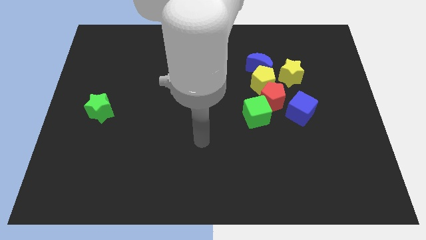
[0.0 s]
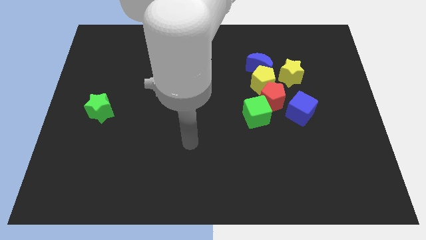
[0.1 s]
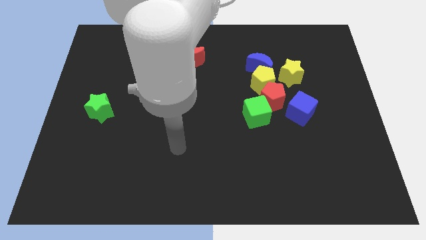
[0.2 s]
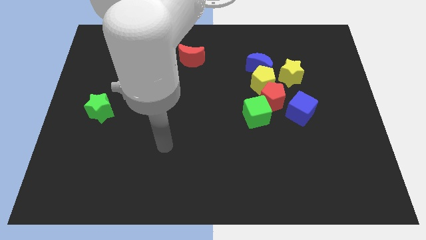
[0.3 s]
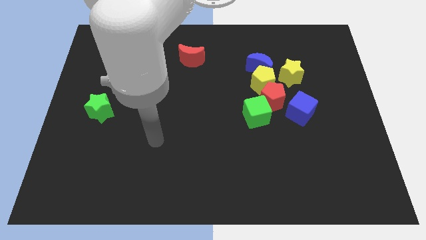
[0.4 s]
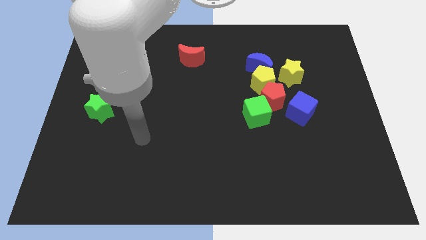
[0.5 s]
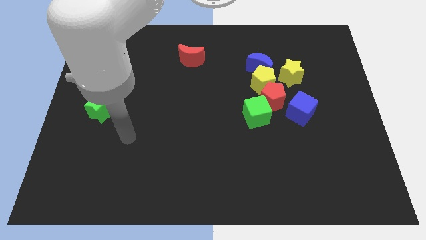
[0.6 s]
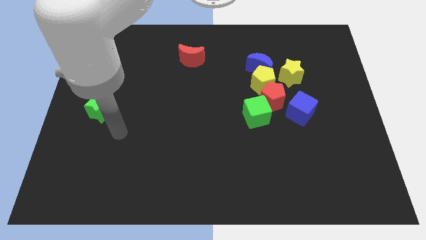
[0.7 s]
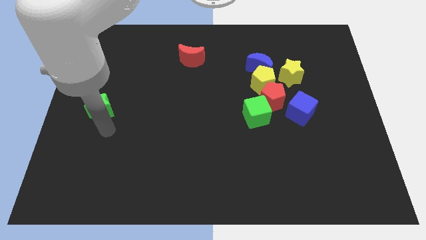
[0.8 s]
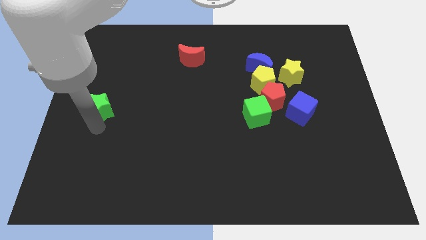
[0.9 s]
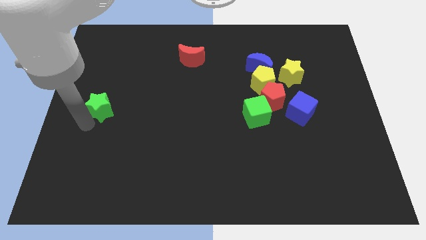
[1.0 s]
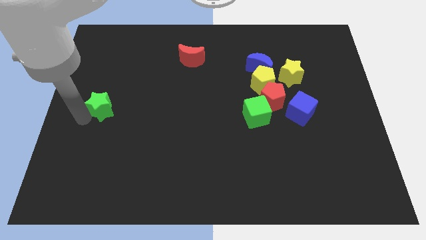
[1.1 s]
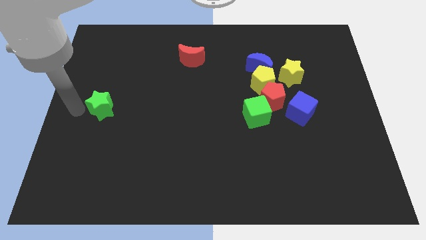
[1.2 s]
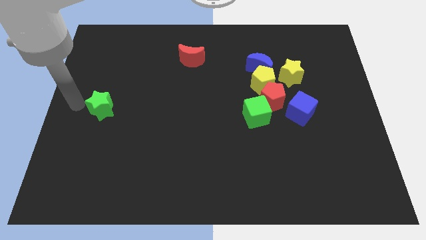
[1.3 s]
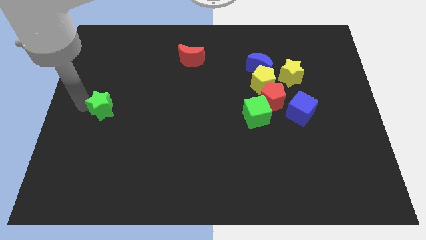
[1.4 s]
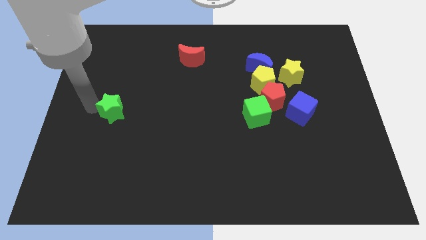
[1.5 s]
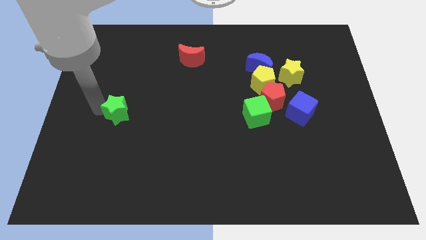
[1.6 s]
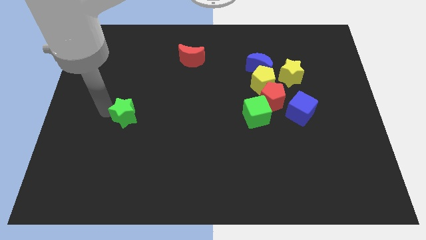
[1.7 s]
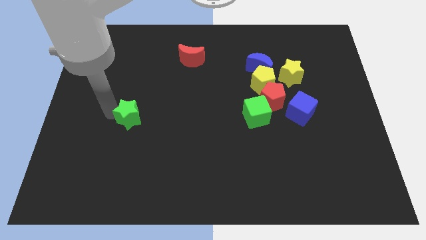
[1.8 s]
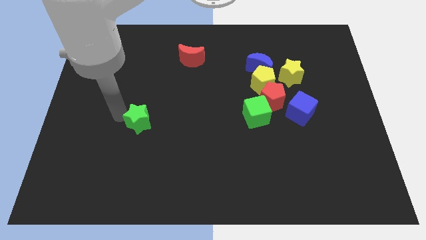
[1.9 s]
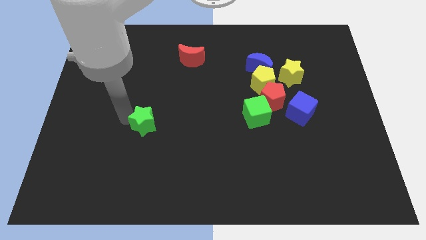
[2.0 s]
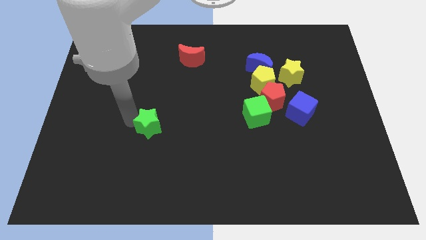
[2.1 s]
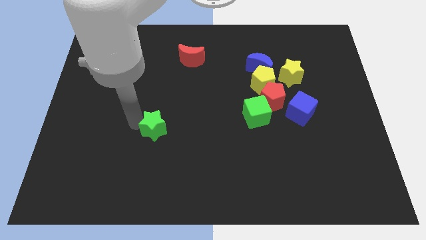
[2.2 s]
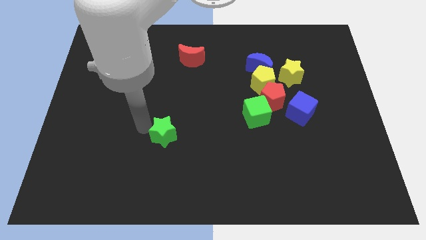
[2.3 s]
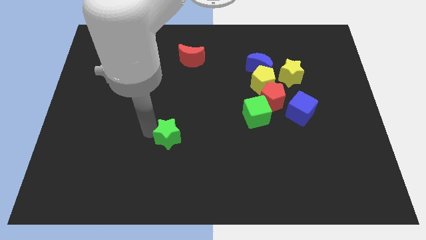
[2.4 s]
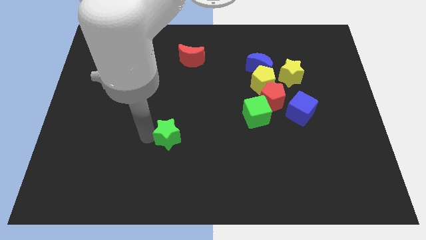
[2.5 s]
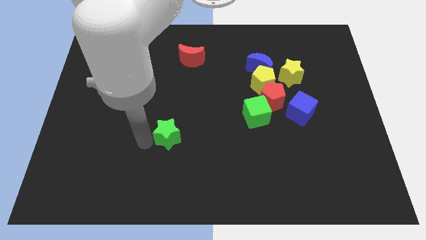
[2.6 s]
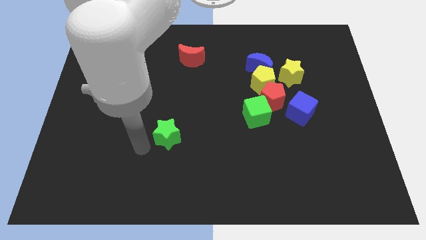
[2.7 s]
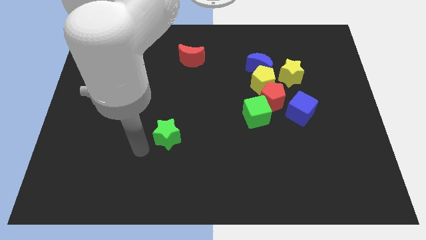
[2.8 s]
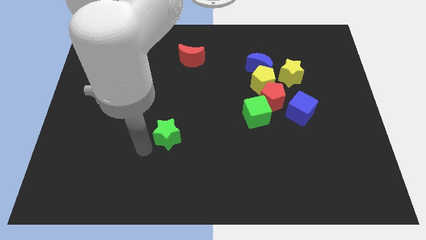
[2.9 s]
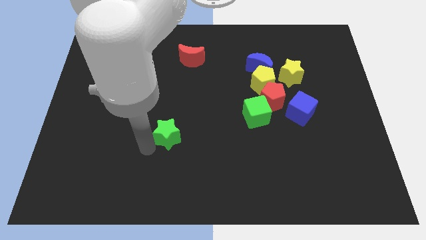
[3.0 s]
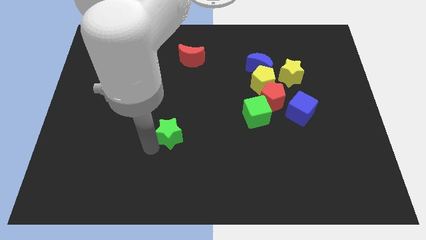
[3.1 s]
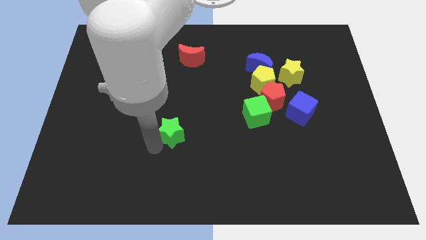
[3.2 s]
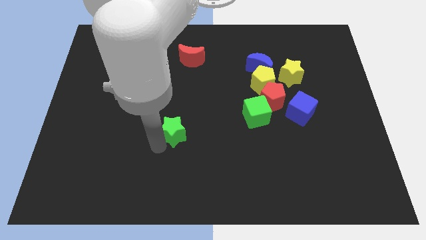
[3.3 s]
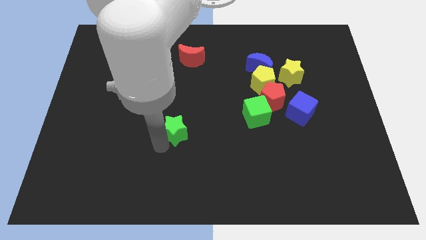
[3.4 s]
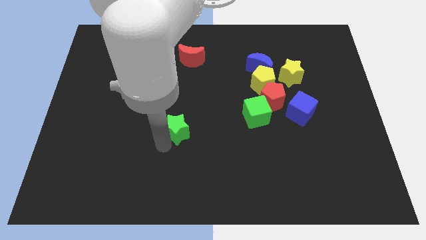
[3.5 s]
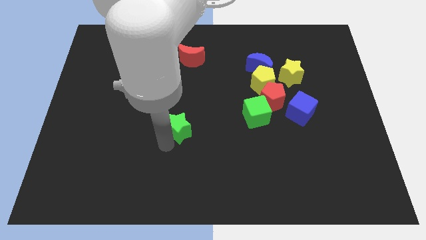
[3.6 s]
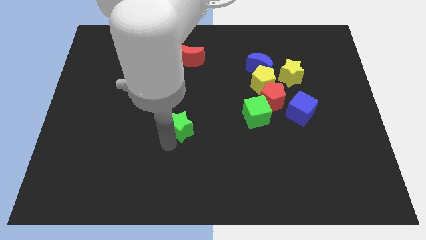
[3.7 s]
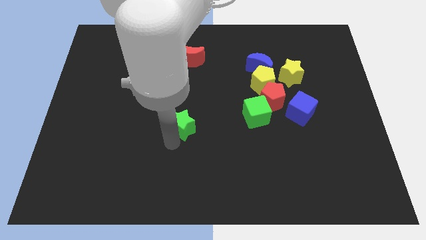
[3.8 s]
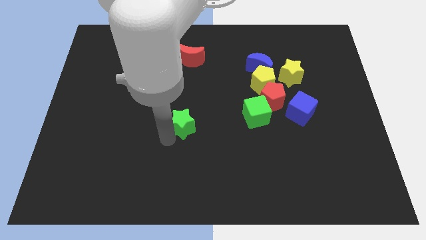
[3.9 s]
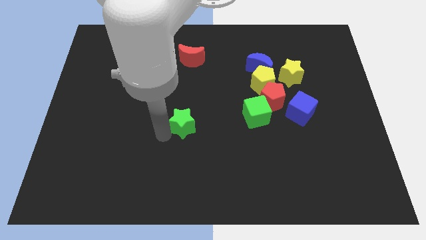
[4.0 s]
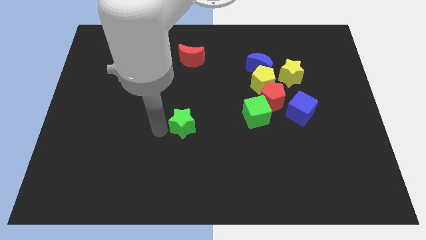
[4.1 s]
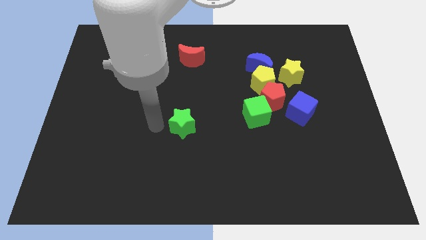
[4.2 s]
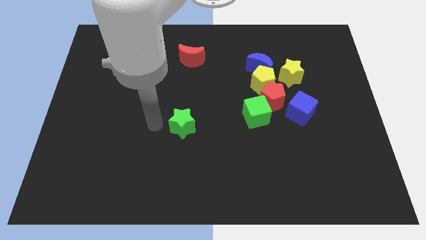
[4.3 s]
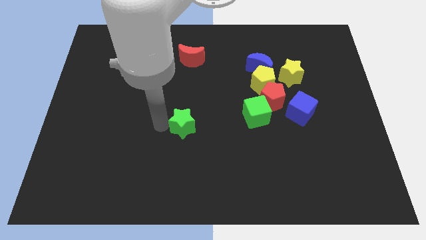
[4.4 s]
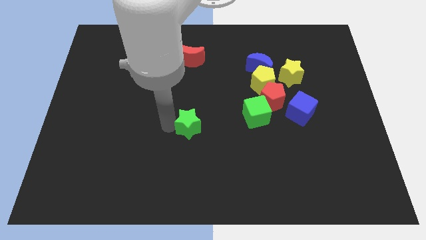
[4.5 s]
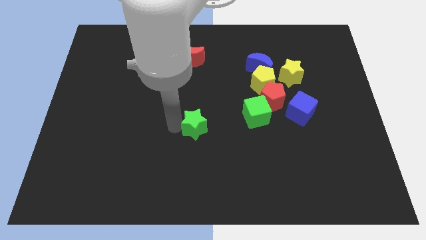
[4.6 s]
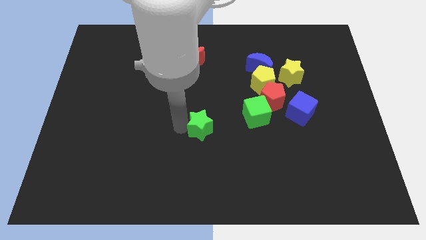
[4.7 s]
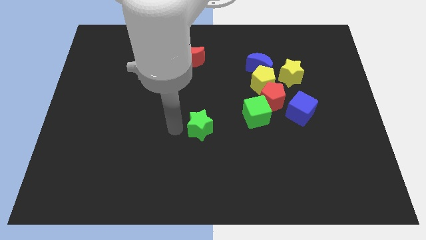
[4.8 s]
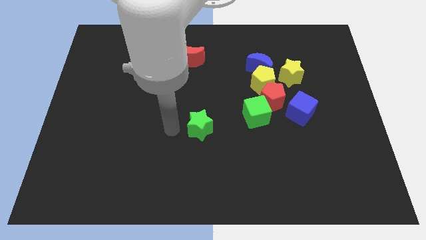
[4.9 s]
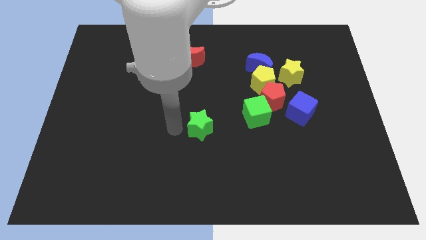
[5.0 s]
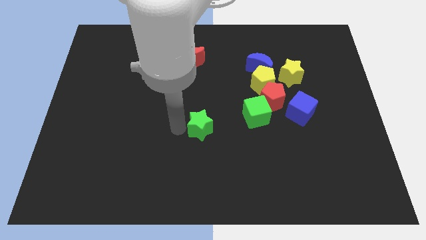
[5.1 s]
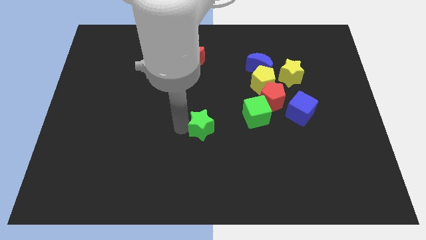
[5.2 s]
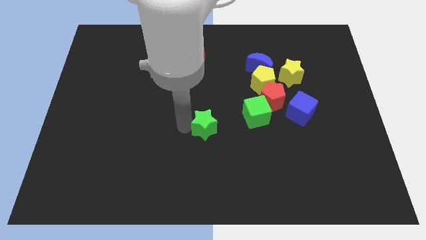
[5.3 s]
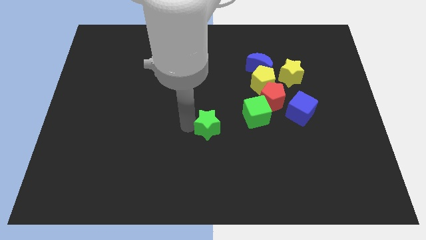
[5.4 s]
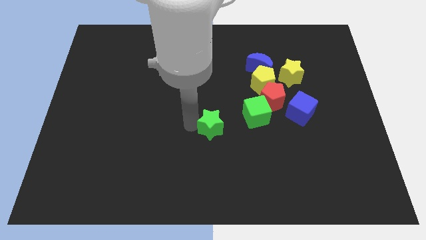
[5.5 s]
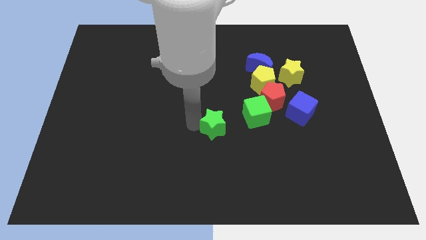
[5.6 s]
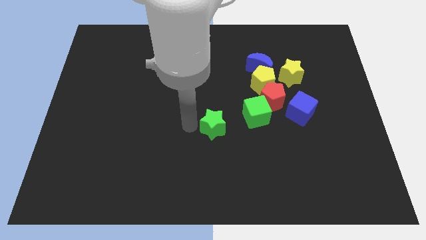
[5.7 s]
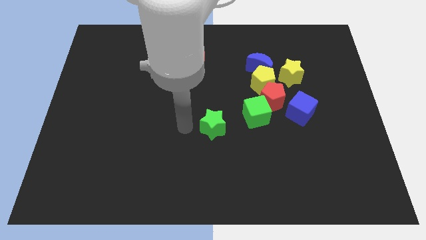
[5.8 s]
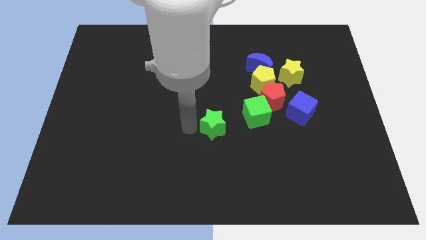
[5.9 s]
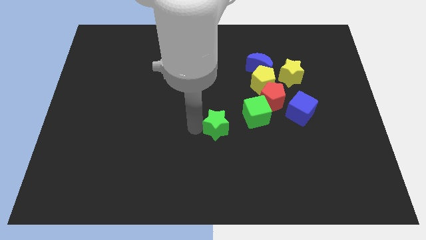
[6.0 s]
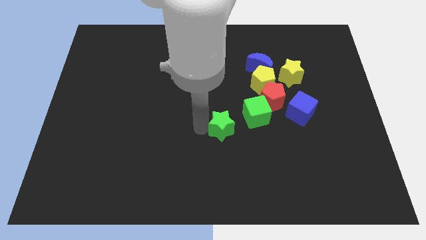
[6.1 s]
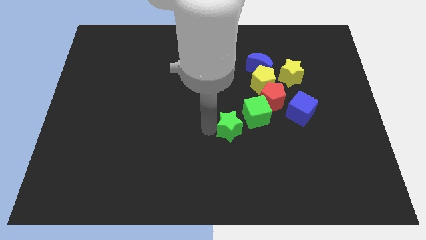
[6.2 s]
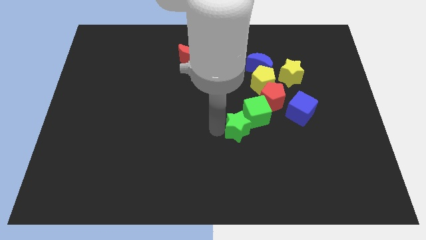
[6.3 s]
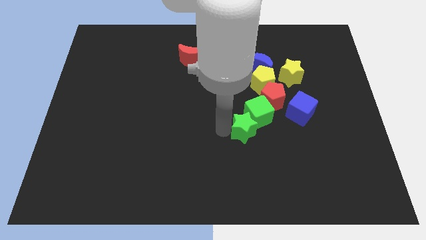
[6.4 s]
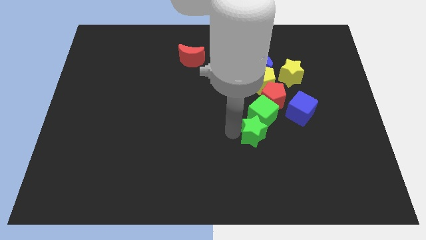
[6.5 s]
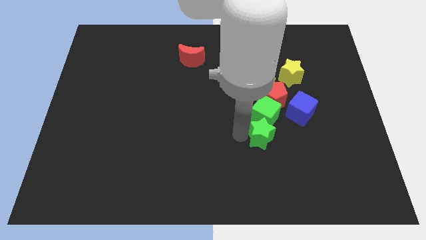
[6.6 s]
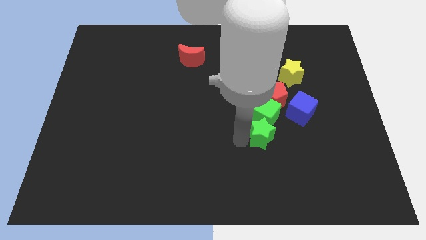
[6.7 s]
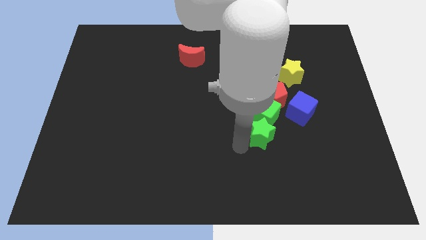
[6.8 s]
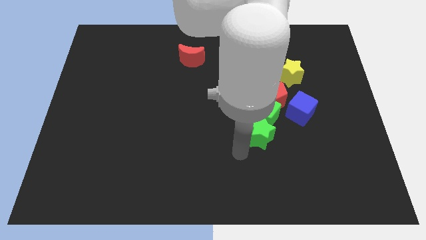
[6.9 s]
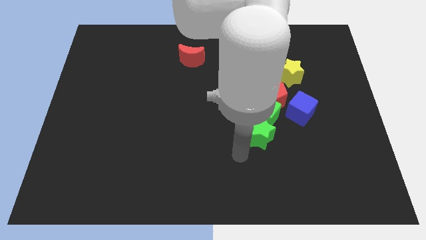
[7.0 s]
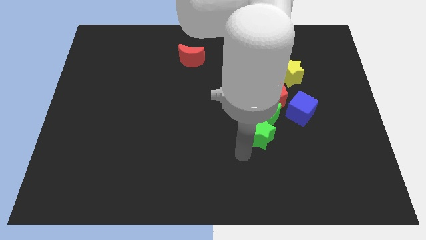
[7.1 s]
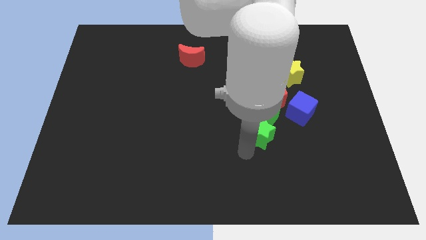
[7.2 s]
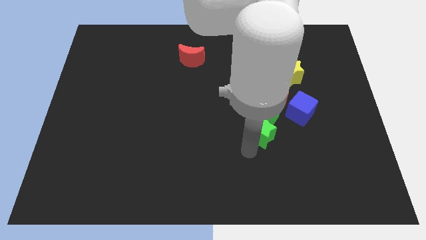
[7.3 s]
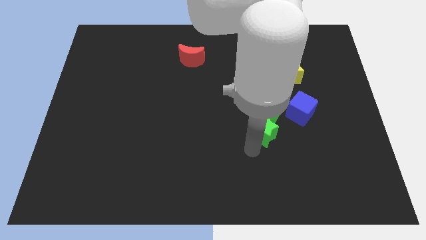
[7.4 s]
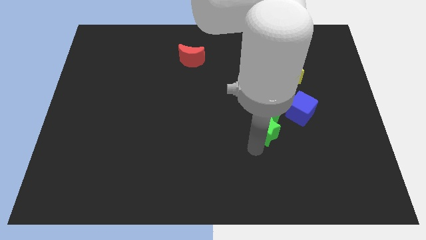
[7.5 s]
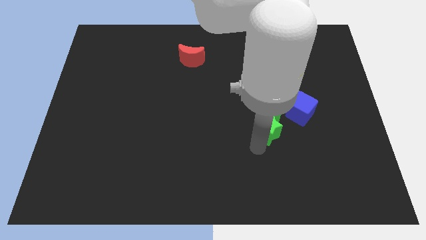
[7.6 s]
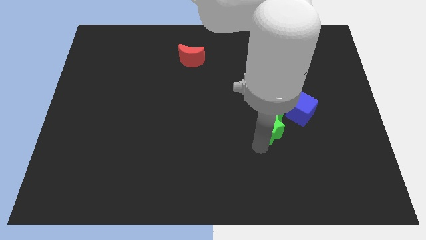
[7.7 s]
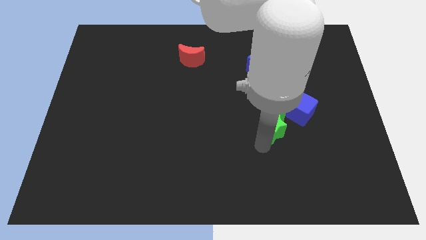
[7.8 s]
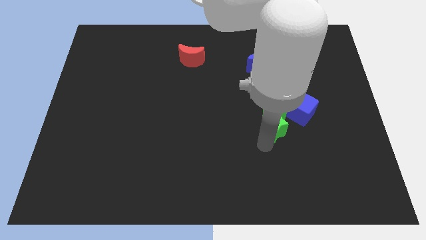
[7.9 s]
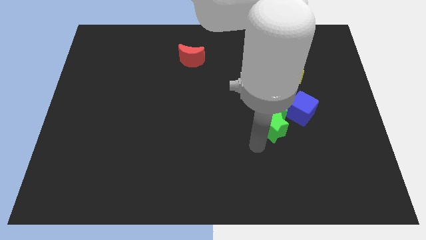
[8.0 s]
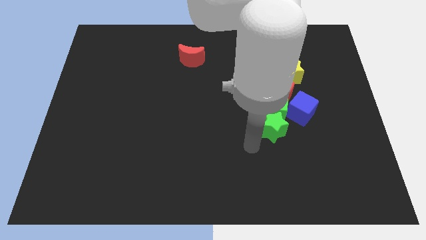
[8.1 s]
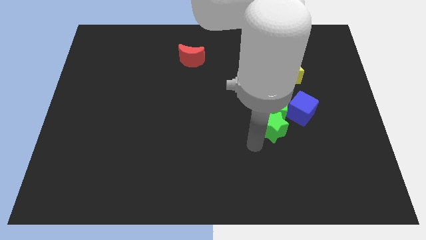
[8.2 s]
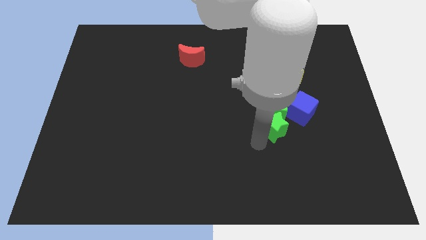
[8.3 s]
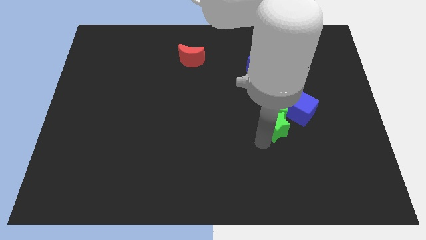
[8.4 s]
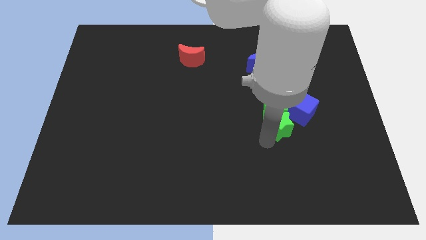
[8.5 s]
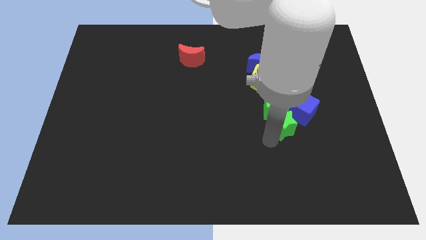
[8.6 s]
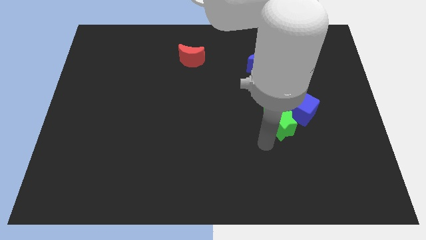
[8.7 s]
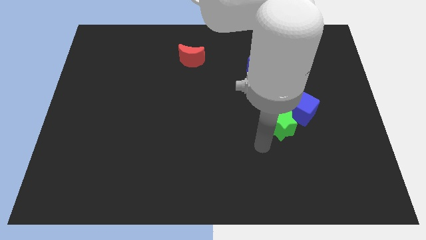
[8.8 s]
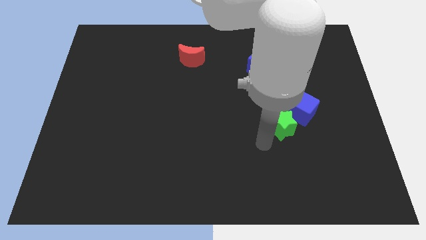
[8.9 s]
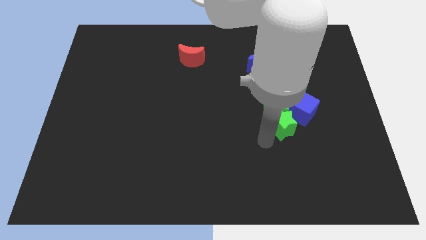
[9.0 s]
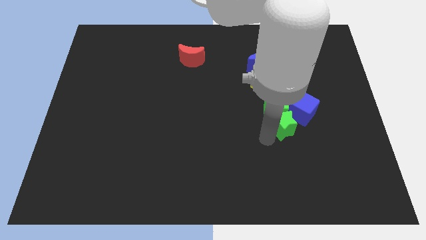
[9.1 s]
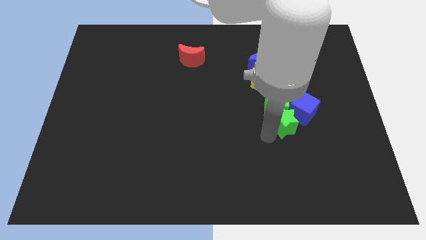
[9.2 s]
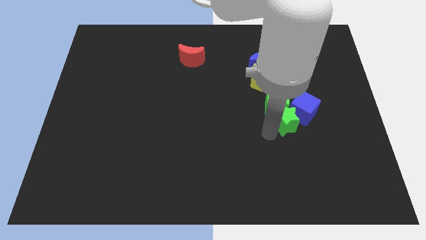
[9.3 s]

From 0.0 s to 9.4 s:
push the green star next to the blue cube
